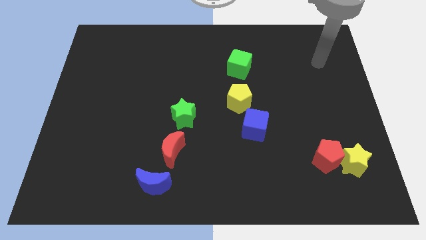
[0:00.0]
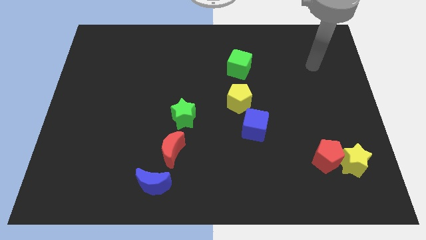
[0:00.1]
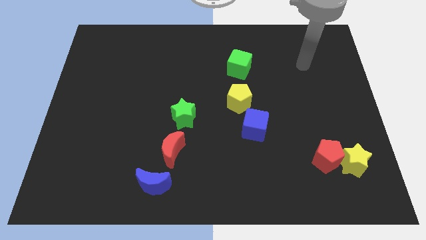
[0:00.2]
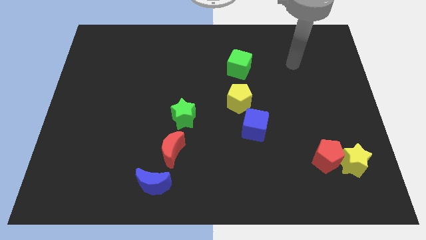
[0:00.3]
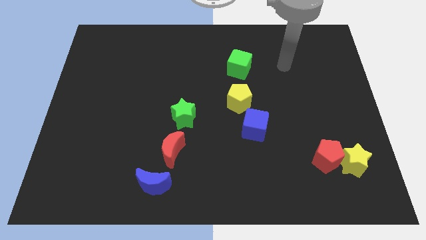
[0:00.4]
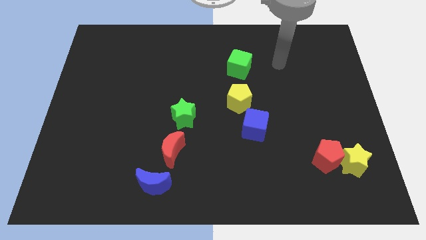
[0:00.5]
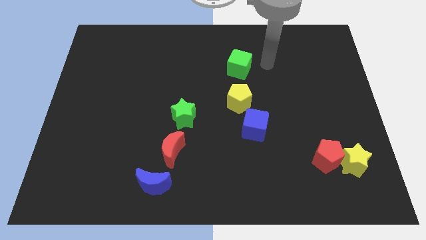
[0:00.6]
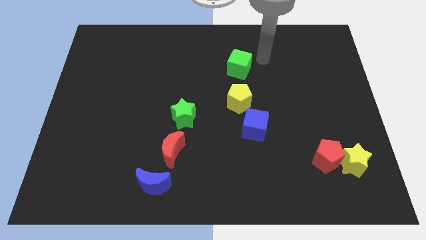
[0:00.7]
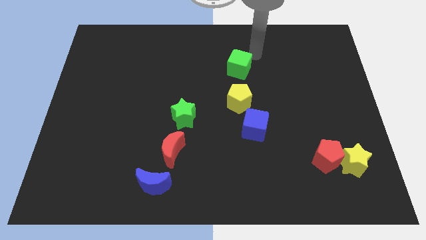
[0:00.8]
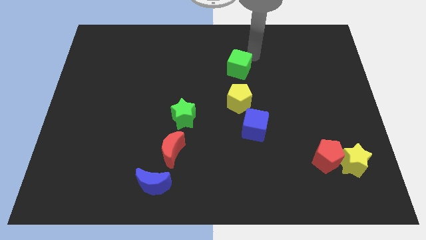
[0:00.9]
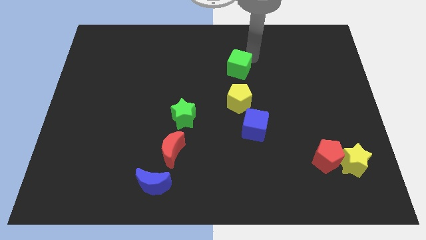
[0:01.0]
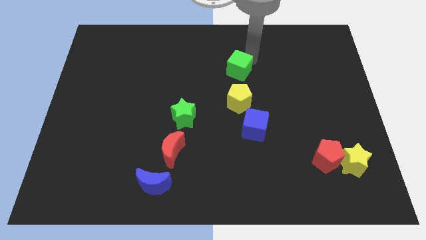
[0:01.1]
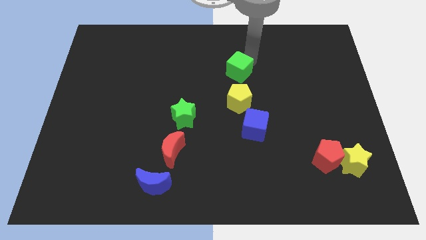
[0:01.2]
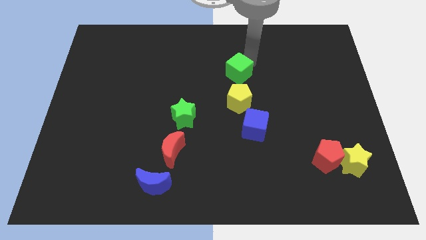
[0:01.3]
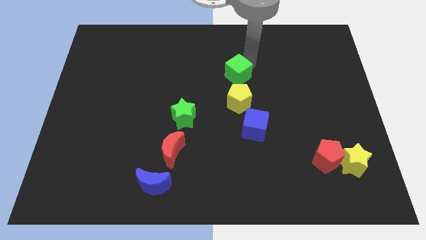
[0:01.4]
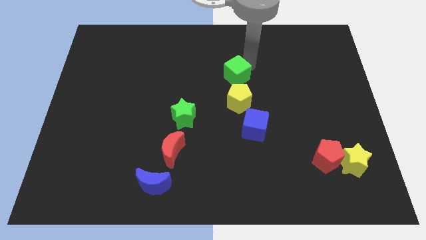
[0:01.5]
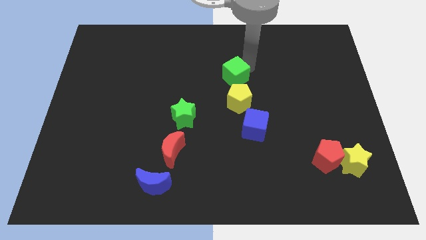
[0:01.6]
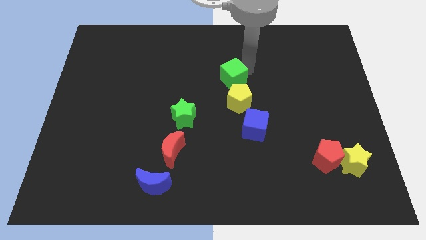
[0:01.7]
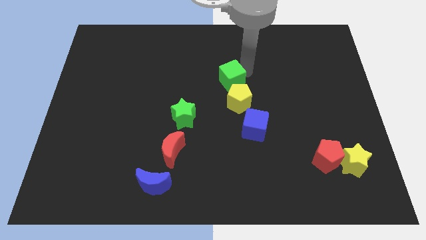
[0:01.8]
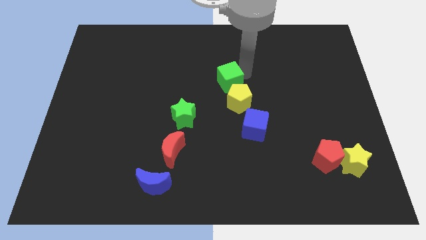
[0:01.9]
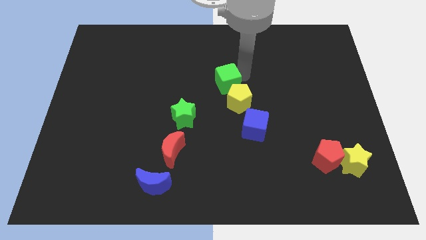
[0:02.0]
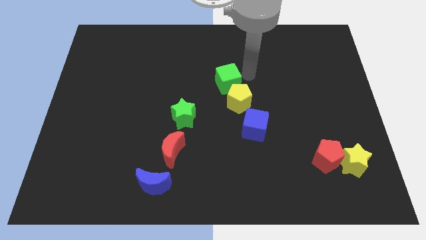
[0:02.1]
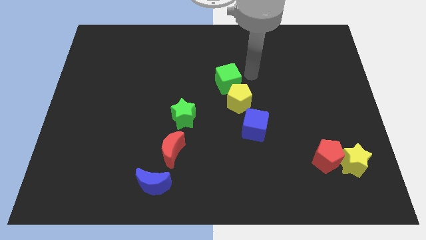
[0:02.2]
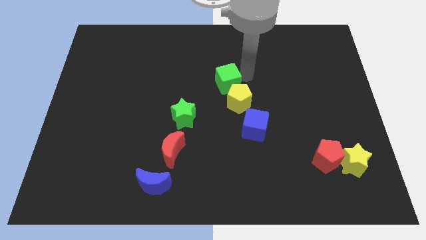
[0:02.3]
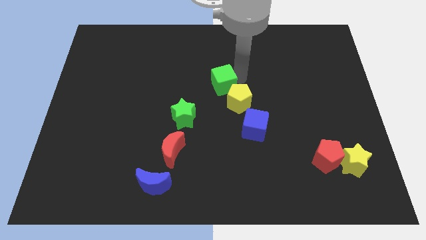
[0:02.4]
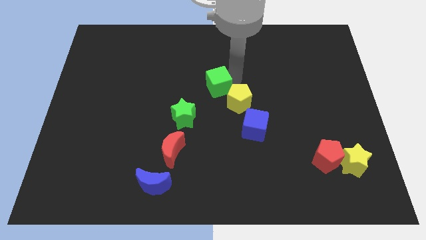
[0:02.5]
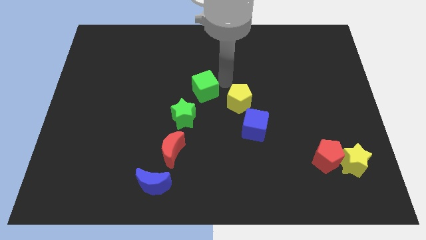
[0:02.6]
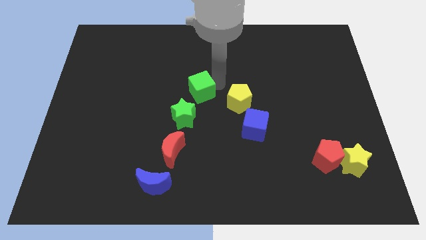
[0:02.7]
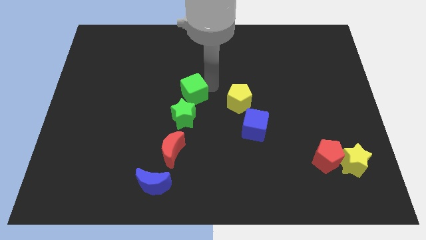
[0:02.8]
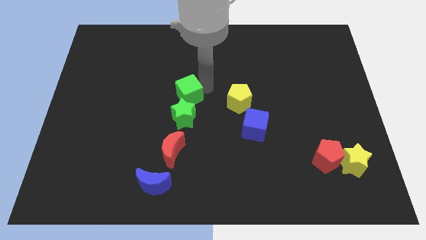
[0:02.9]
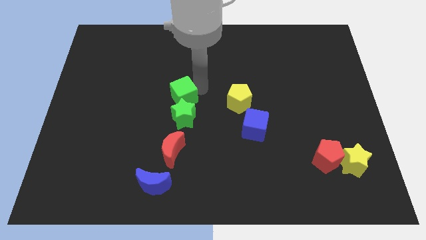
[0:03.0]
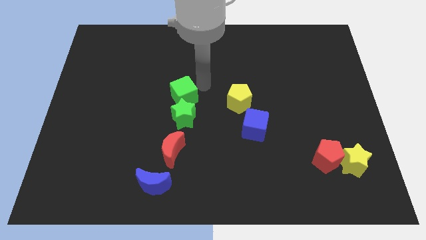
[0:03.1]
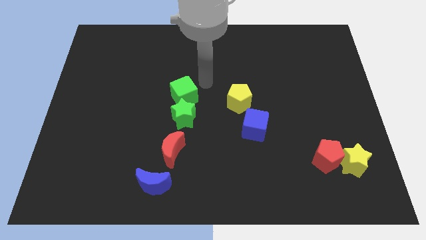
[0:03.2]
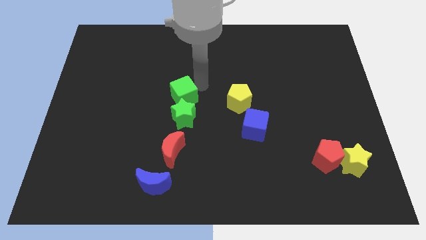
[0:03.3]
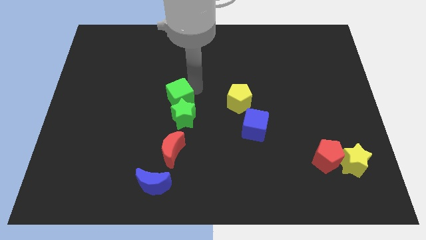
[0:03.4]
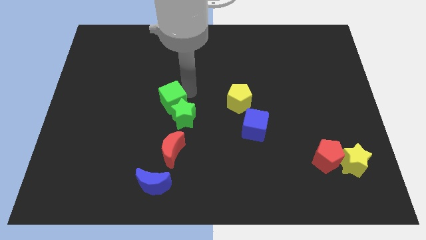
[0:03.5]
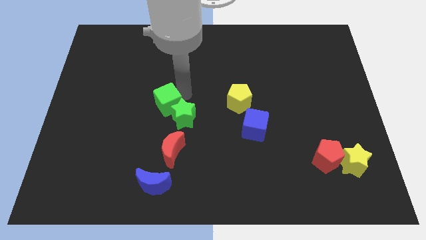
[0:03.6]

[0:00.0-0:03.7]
move the green cube diagonally downwards and left

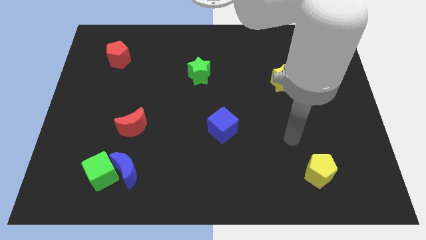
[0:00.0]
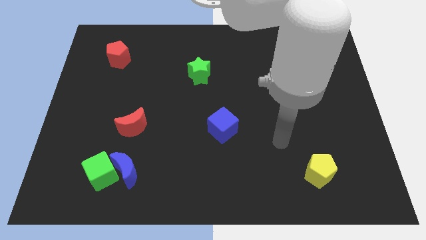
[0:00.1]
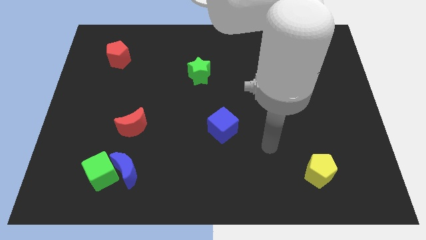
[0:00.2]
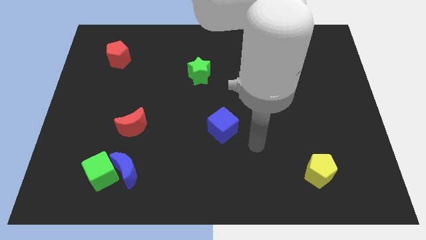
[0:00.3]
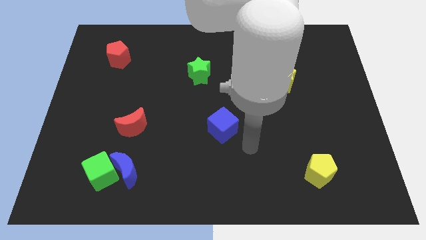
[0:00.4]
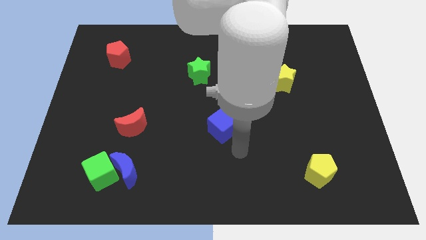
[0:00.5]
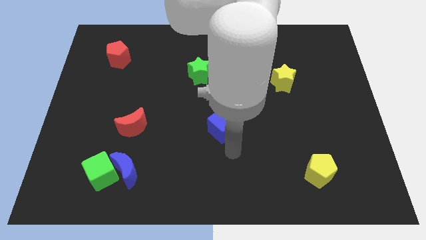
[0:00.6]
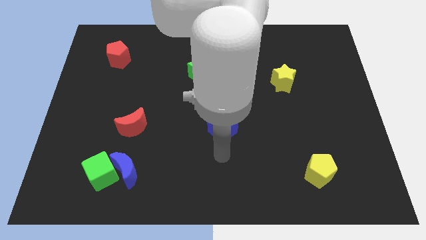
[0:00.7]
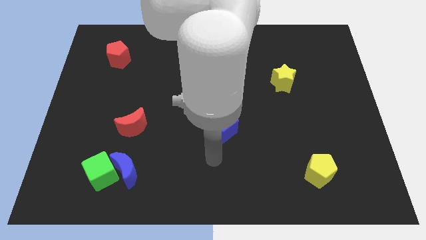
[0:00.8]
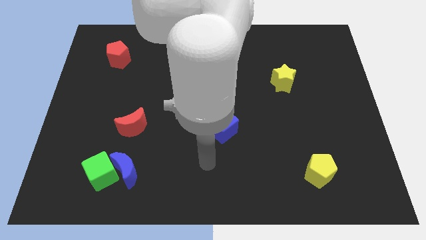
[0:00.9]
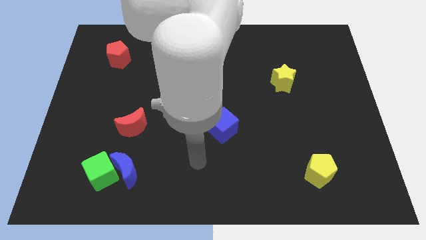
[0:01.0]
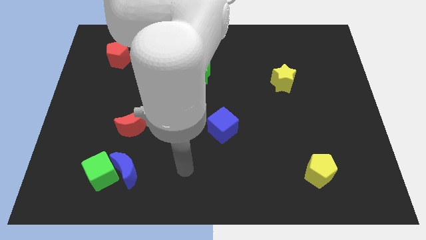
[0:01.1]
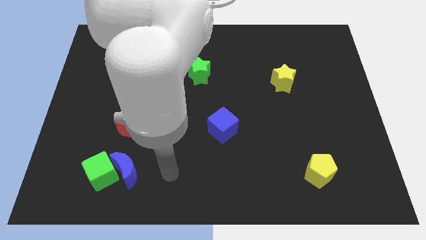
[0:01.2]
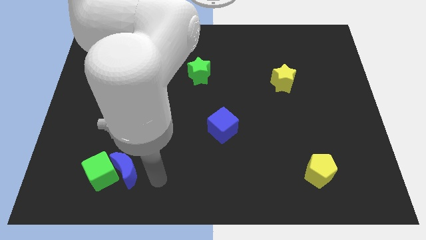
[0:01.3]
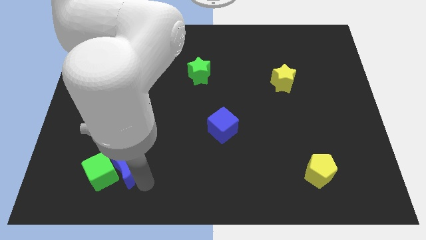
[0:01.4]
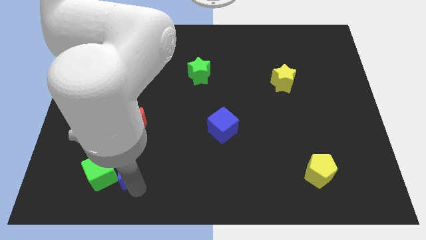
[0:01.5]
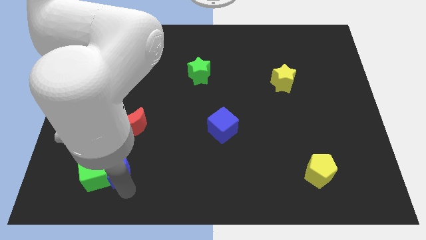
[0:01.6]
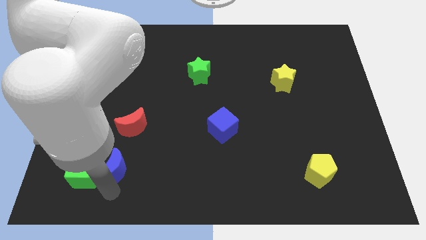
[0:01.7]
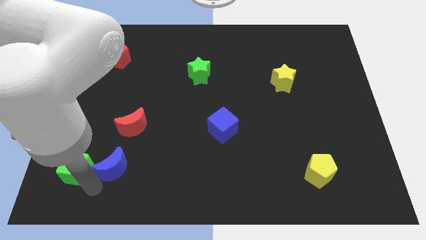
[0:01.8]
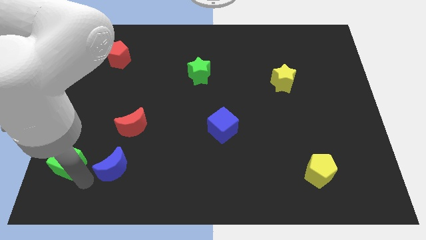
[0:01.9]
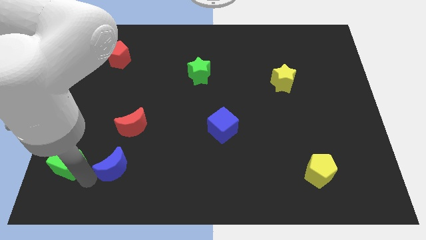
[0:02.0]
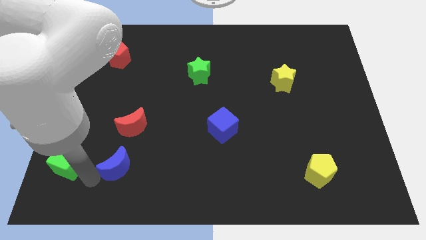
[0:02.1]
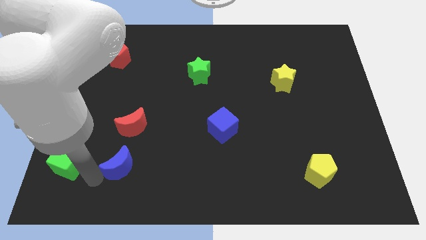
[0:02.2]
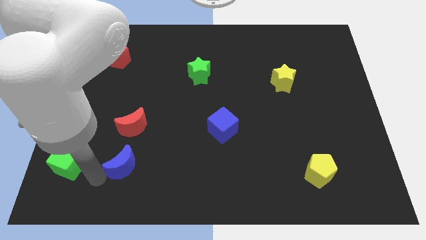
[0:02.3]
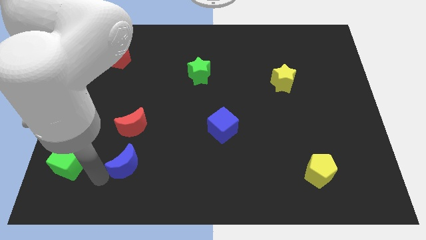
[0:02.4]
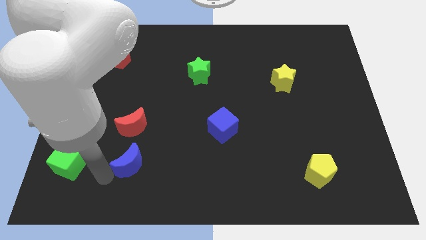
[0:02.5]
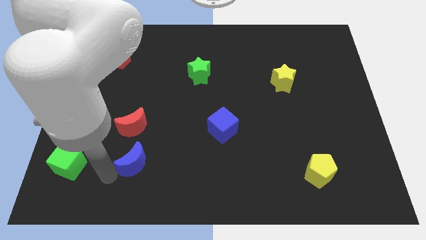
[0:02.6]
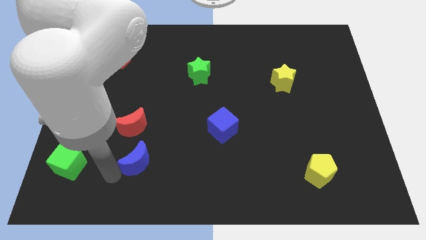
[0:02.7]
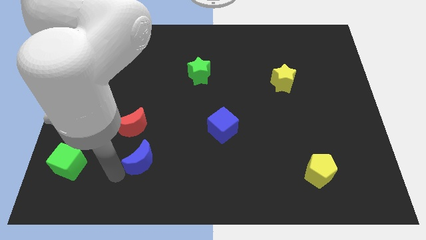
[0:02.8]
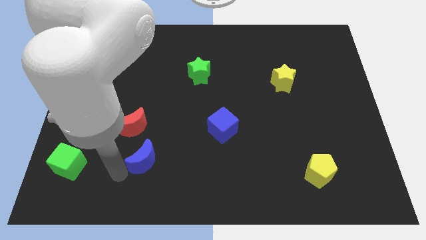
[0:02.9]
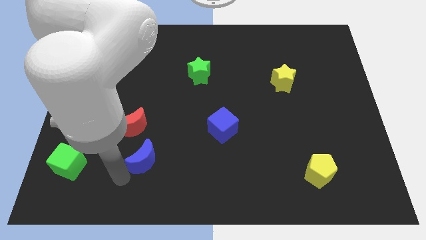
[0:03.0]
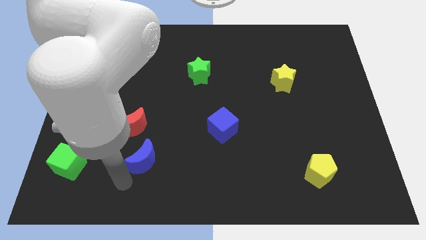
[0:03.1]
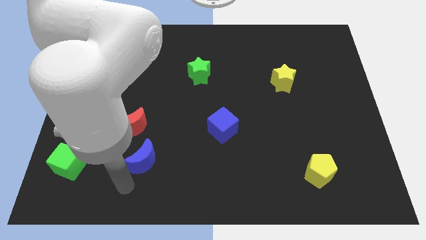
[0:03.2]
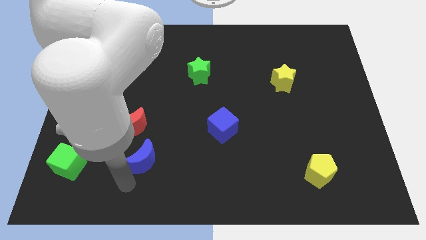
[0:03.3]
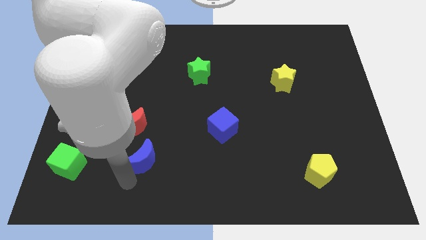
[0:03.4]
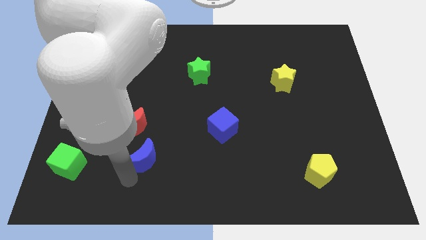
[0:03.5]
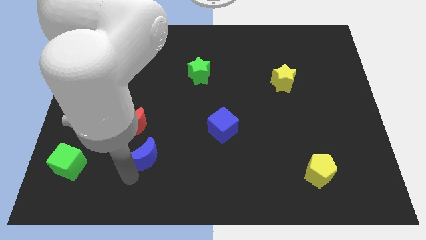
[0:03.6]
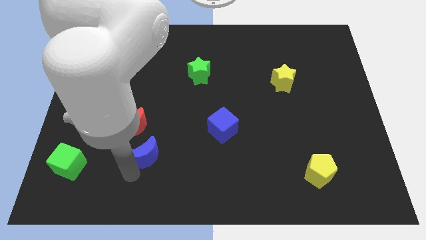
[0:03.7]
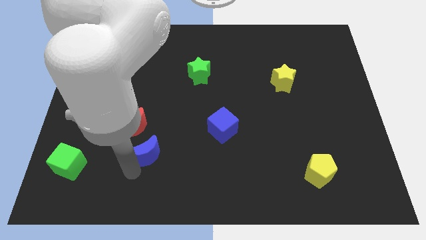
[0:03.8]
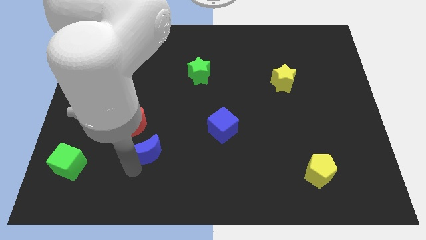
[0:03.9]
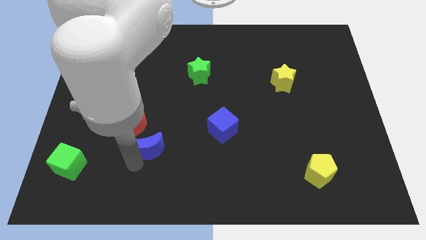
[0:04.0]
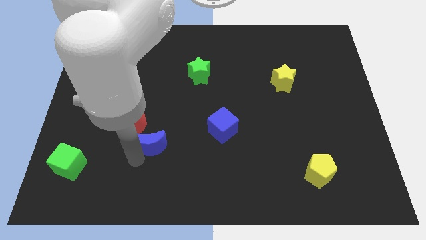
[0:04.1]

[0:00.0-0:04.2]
move the blue moon upwards and then to the right a little
